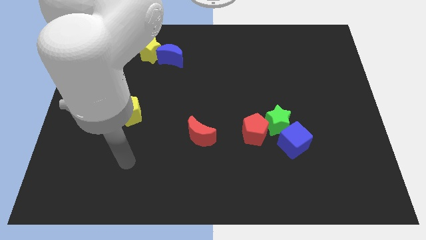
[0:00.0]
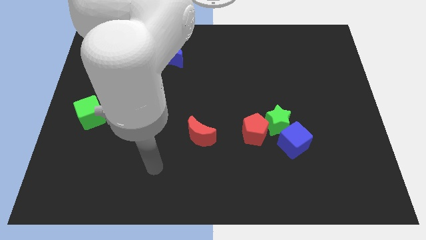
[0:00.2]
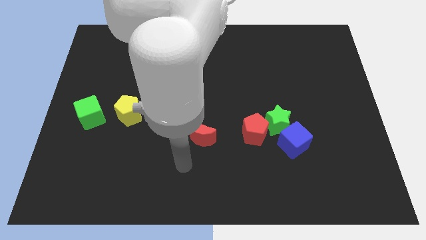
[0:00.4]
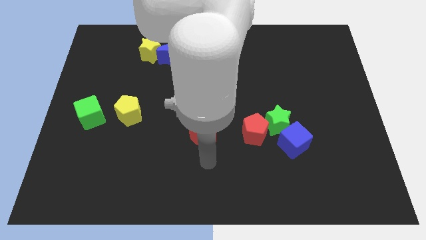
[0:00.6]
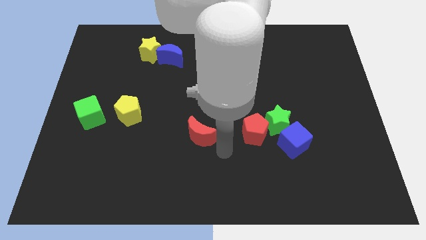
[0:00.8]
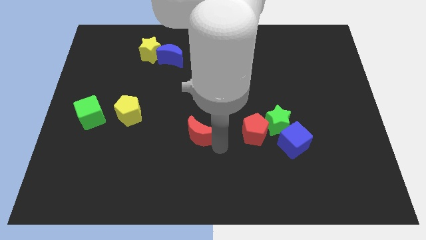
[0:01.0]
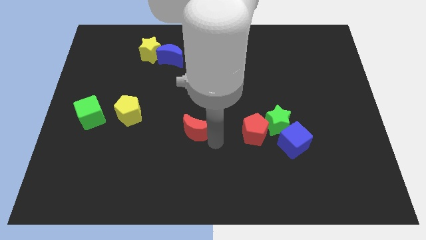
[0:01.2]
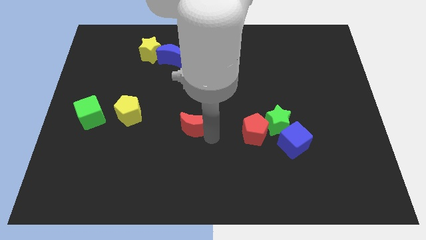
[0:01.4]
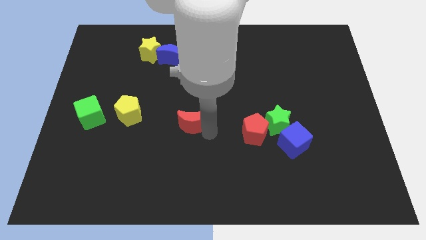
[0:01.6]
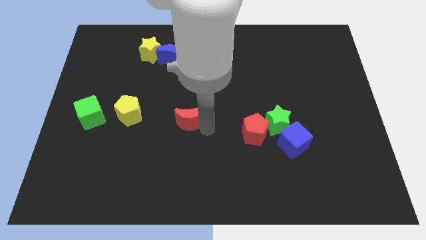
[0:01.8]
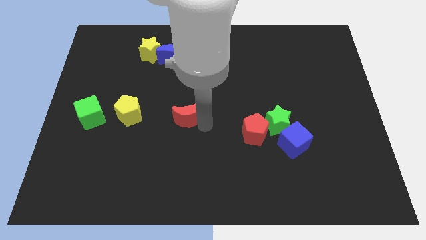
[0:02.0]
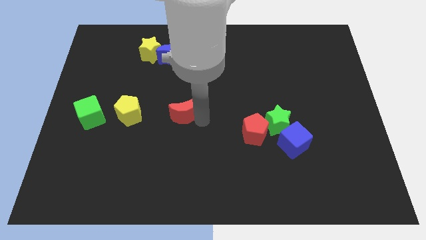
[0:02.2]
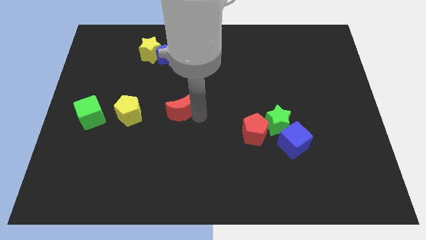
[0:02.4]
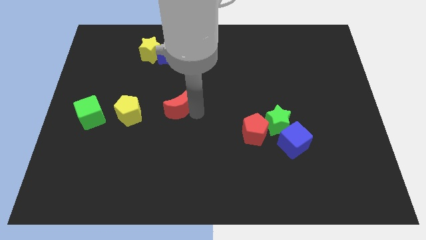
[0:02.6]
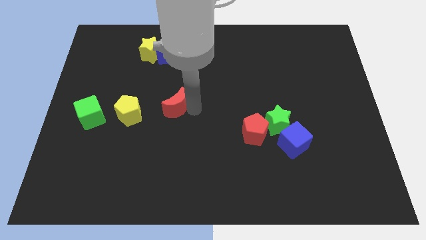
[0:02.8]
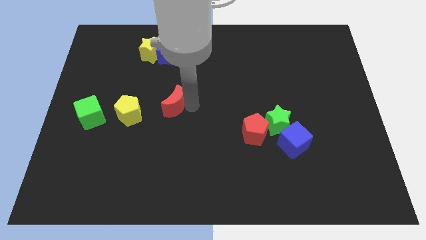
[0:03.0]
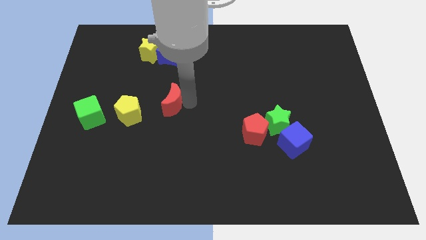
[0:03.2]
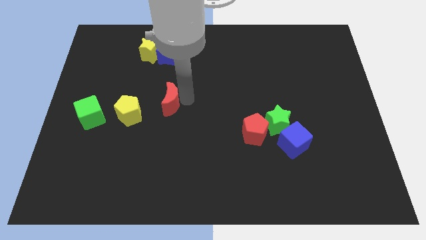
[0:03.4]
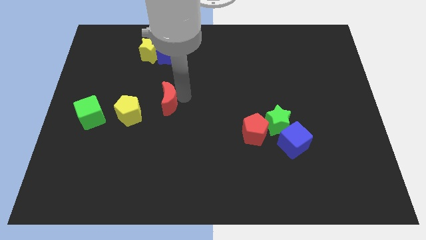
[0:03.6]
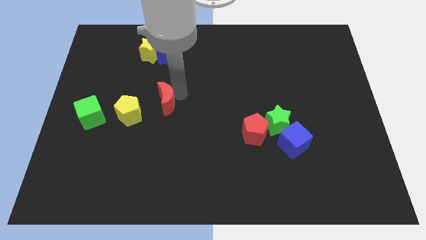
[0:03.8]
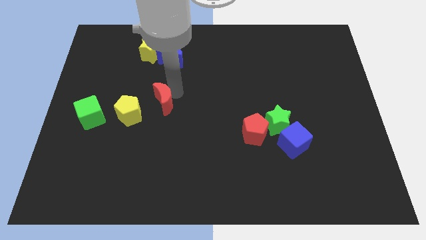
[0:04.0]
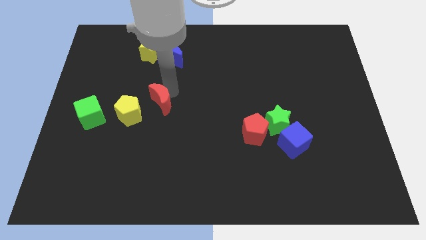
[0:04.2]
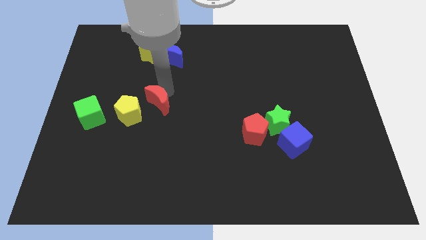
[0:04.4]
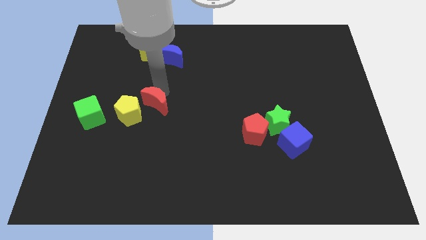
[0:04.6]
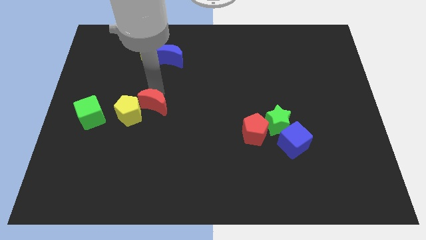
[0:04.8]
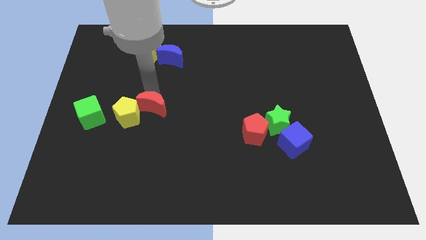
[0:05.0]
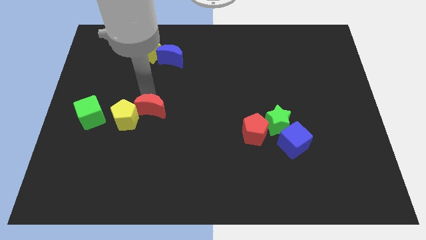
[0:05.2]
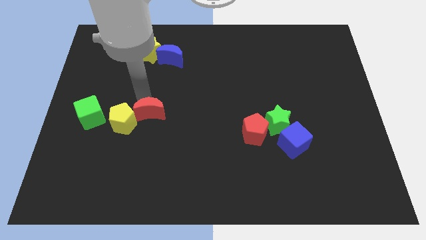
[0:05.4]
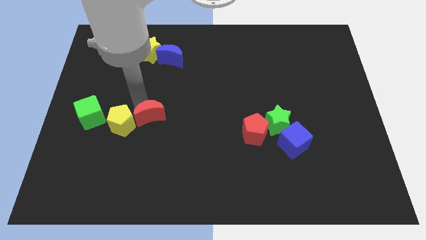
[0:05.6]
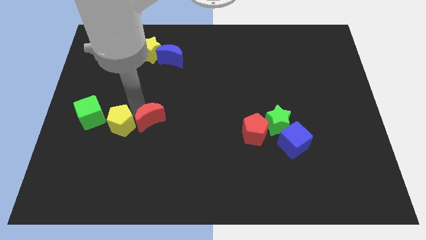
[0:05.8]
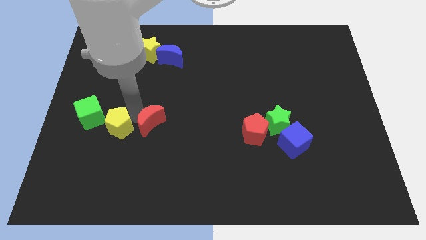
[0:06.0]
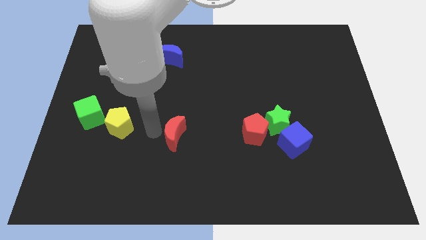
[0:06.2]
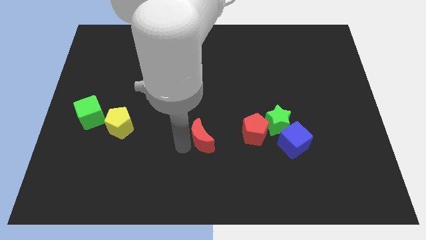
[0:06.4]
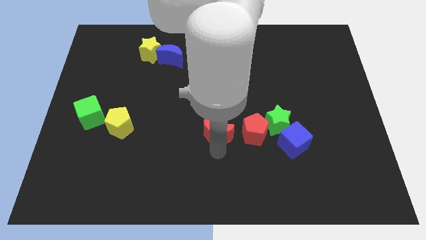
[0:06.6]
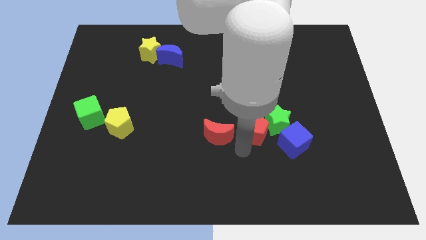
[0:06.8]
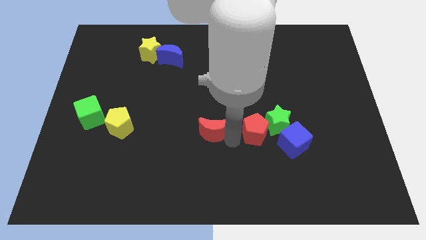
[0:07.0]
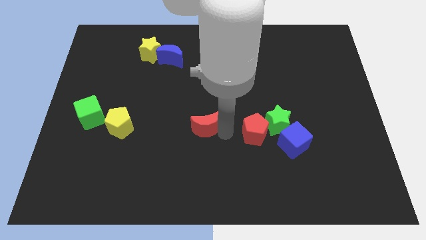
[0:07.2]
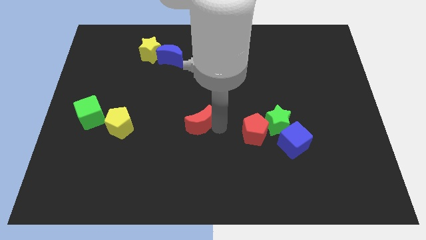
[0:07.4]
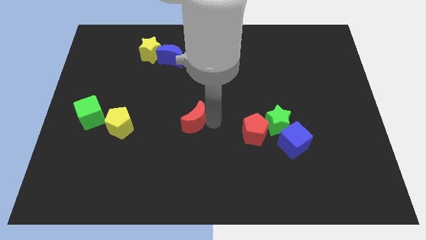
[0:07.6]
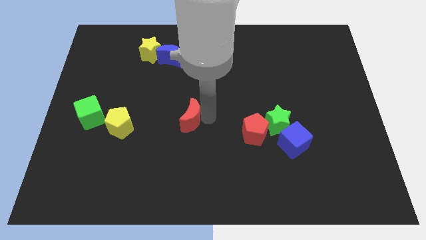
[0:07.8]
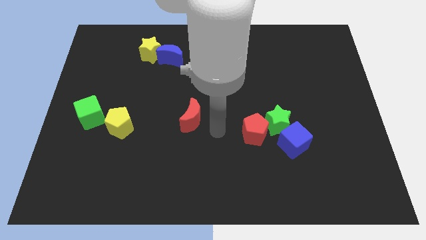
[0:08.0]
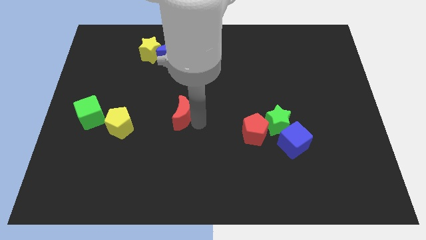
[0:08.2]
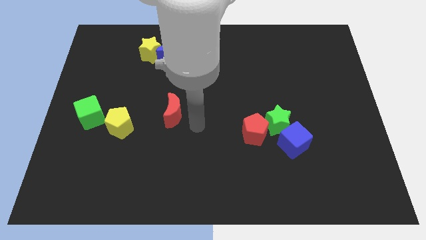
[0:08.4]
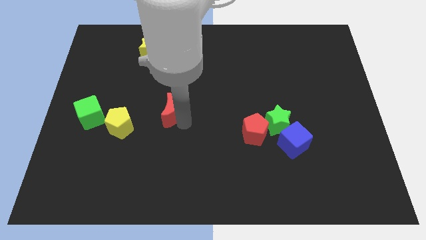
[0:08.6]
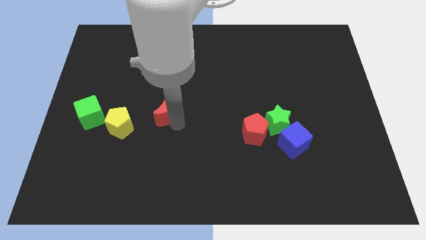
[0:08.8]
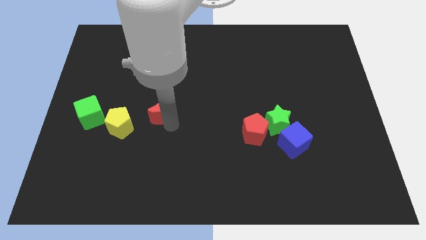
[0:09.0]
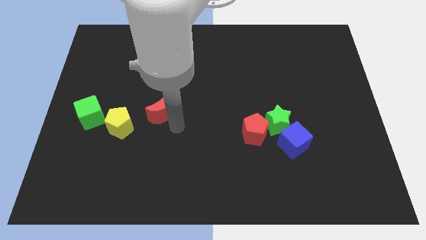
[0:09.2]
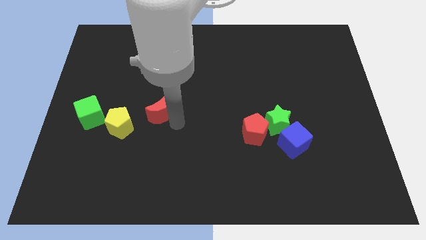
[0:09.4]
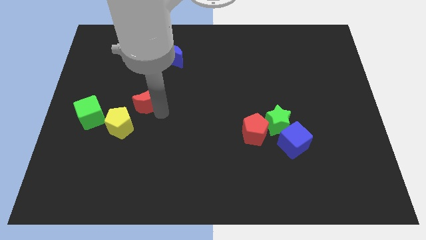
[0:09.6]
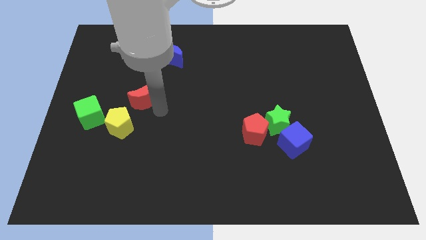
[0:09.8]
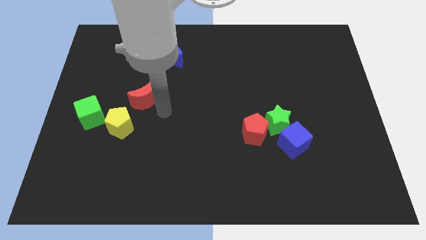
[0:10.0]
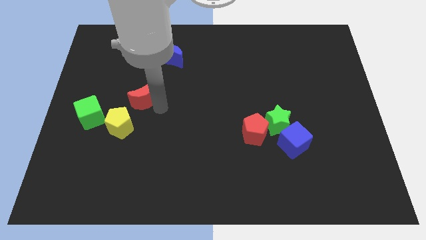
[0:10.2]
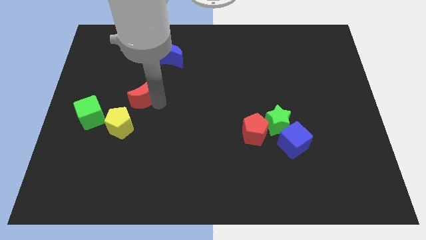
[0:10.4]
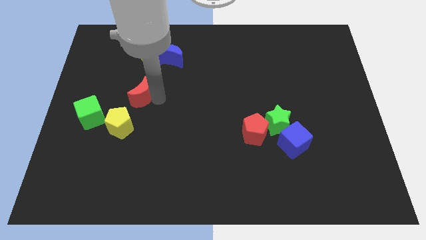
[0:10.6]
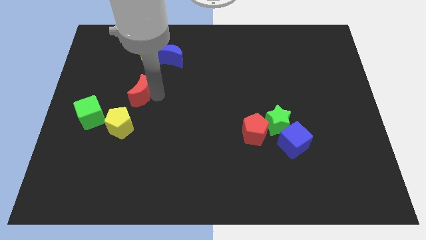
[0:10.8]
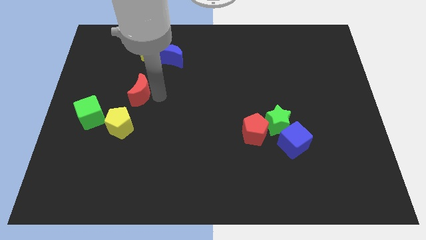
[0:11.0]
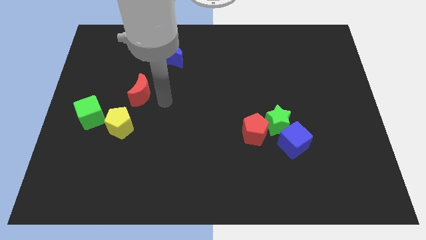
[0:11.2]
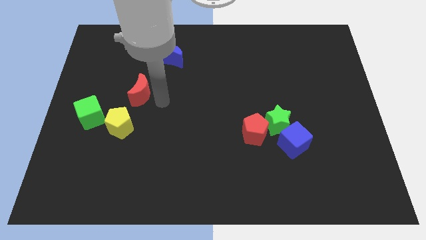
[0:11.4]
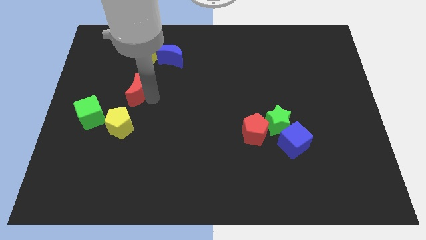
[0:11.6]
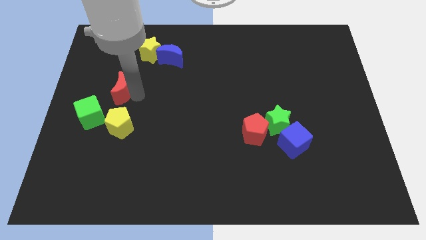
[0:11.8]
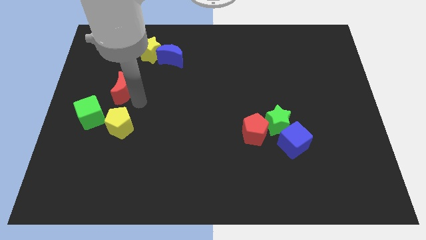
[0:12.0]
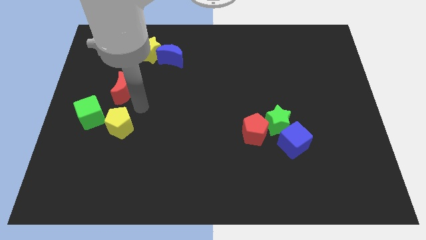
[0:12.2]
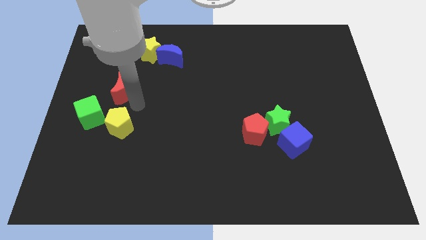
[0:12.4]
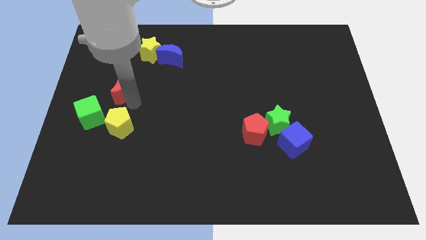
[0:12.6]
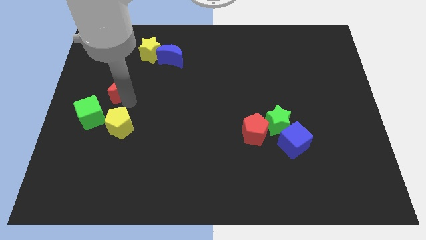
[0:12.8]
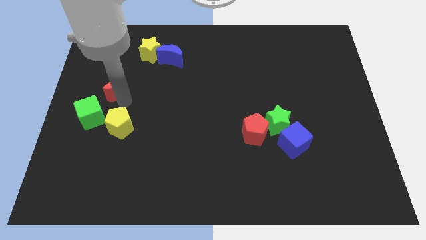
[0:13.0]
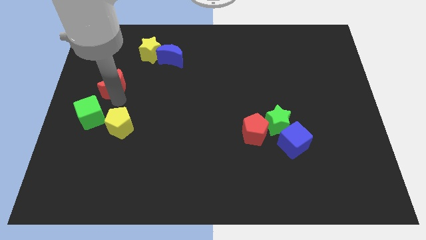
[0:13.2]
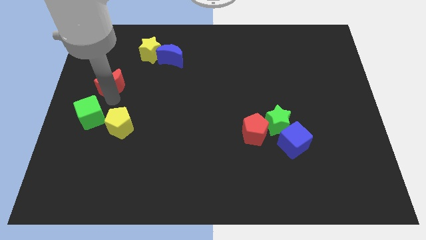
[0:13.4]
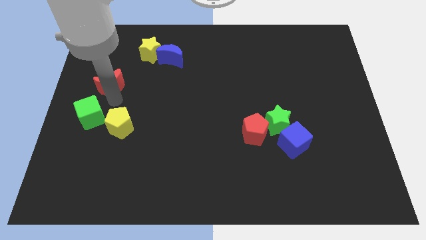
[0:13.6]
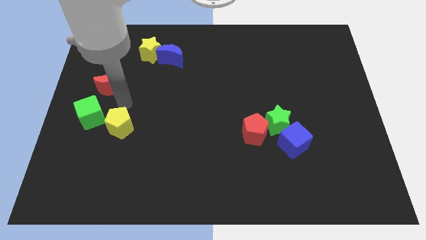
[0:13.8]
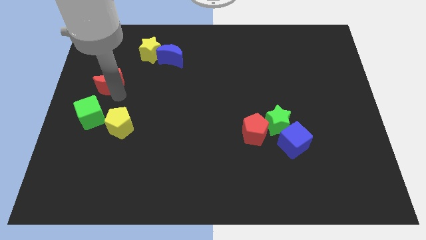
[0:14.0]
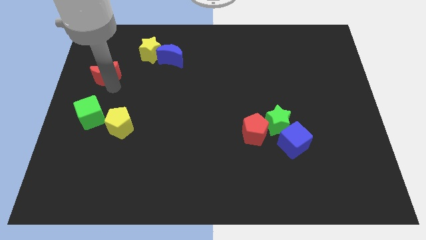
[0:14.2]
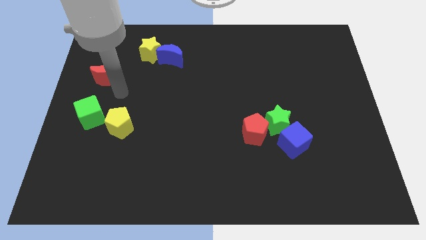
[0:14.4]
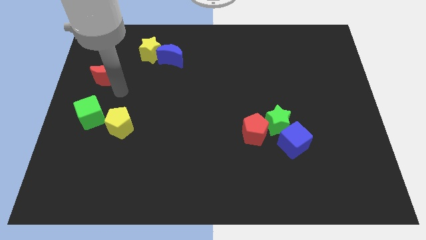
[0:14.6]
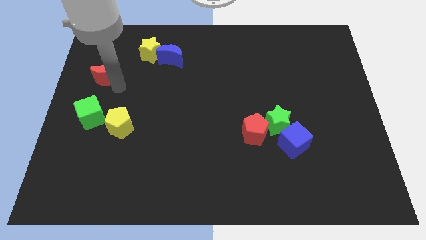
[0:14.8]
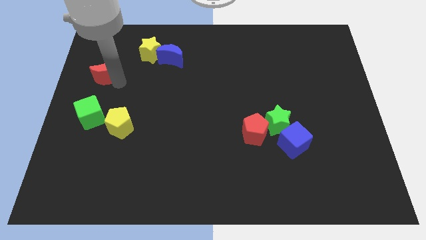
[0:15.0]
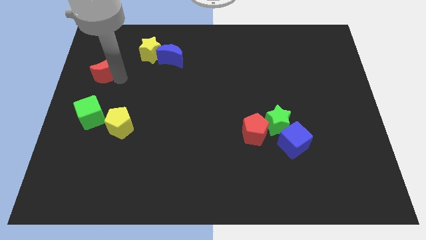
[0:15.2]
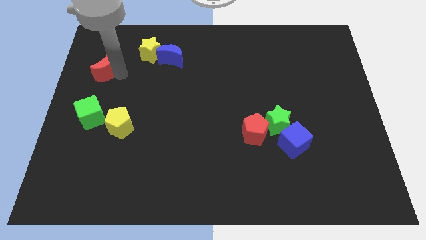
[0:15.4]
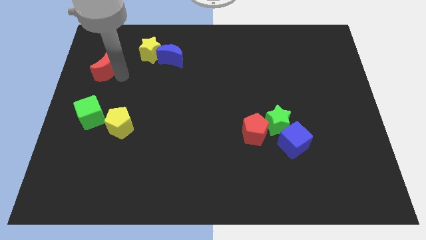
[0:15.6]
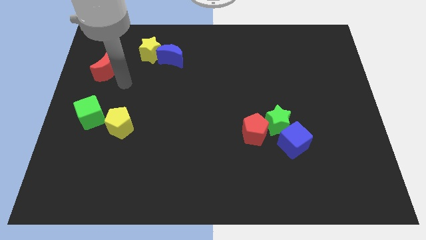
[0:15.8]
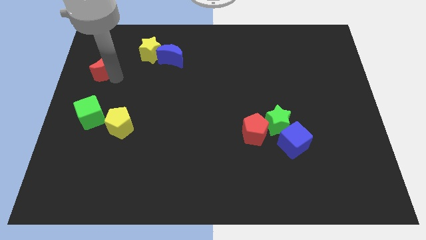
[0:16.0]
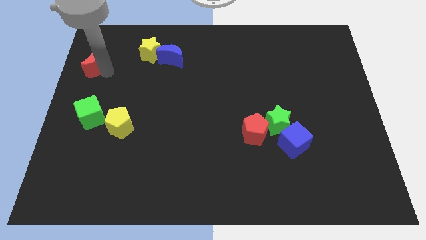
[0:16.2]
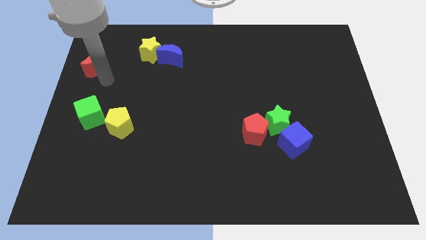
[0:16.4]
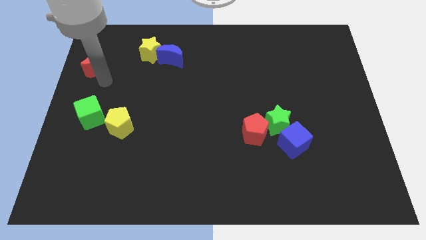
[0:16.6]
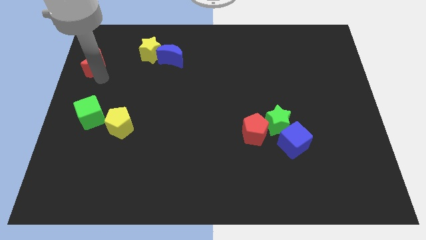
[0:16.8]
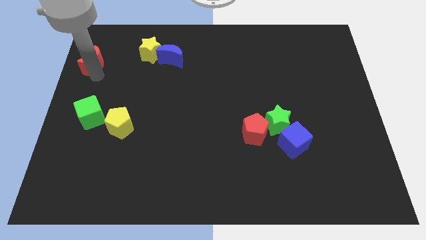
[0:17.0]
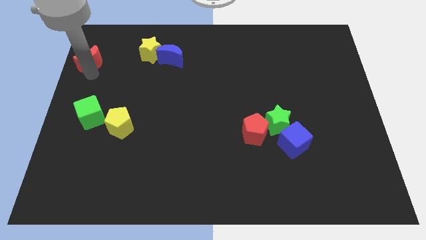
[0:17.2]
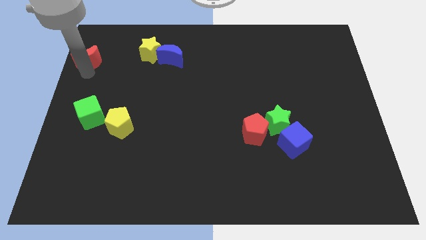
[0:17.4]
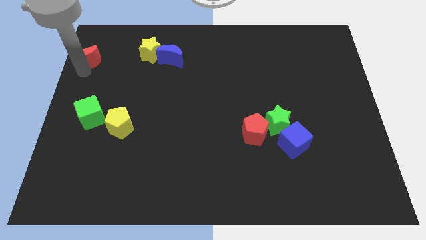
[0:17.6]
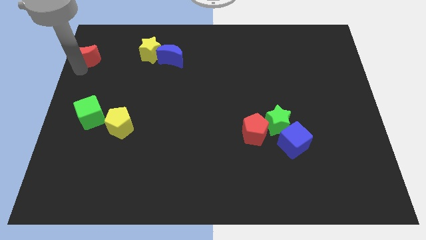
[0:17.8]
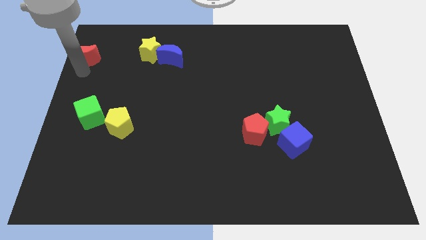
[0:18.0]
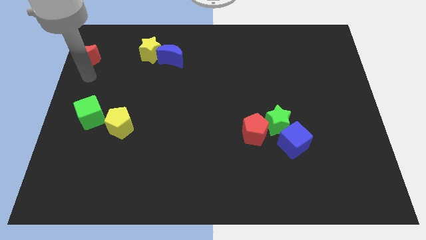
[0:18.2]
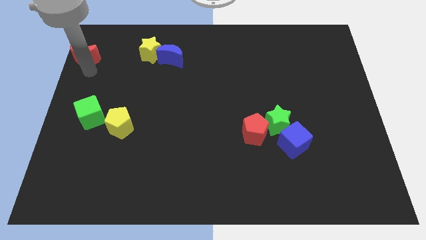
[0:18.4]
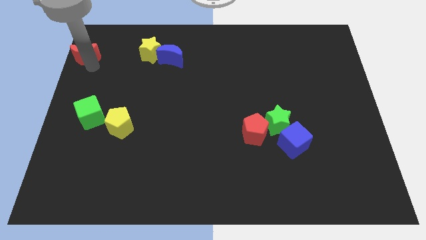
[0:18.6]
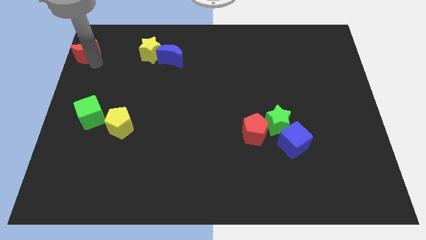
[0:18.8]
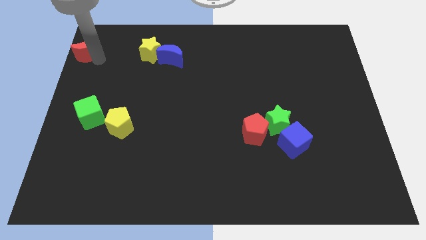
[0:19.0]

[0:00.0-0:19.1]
move the red moon to the top left corner
